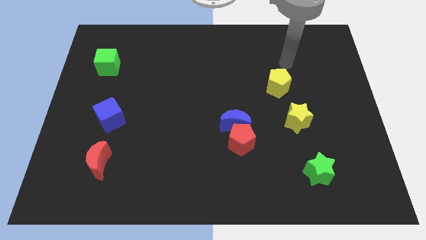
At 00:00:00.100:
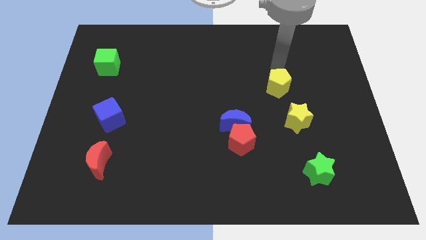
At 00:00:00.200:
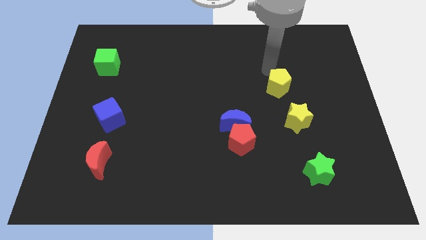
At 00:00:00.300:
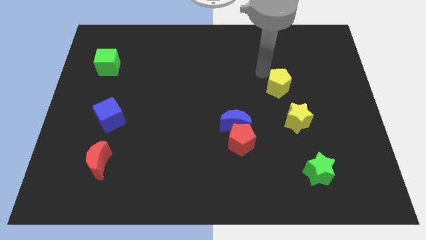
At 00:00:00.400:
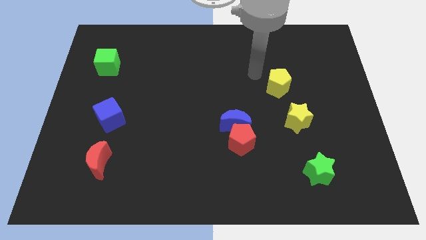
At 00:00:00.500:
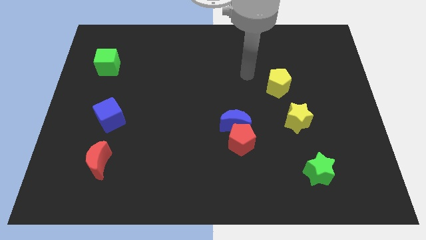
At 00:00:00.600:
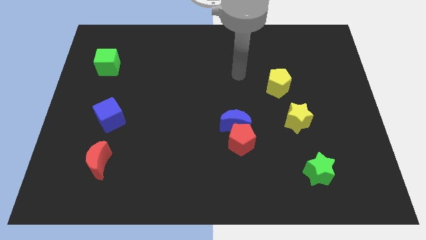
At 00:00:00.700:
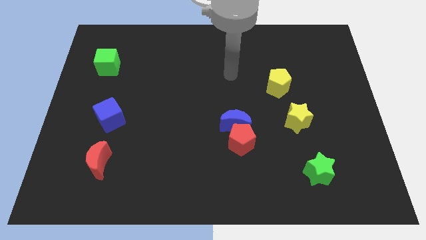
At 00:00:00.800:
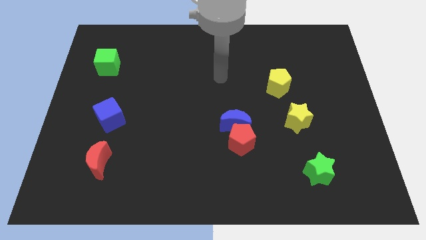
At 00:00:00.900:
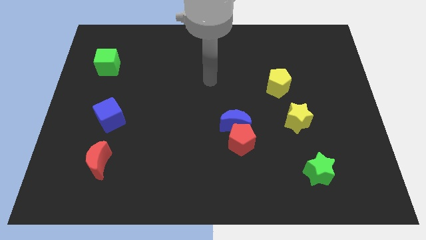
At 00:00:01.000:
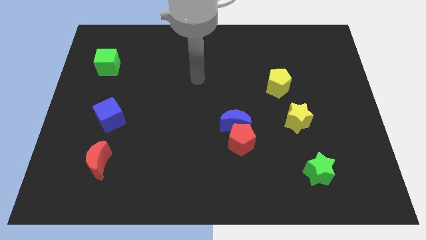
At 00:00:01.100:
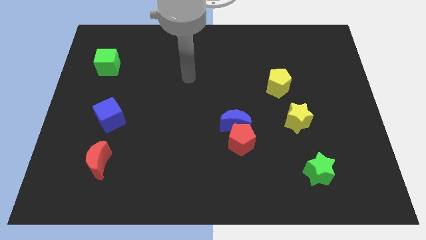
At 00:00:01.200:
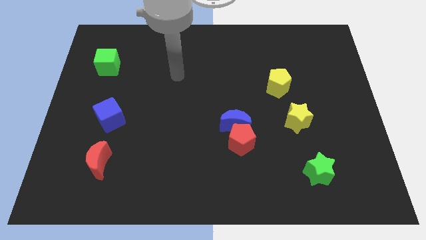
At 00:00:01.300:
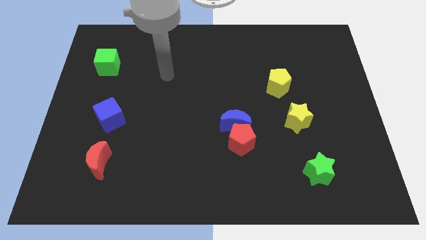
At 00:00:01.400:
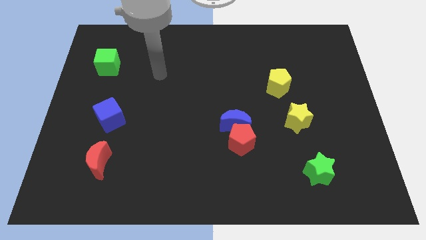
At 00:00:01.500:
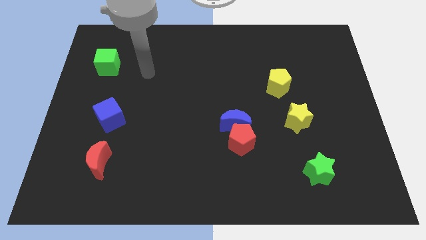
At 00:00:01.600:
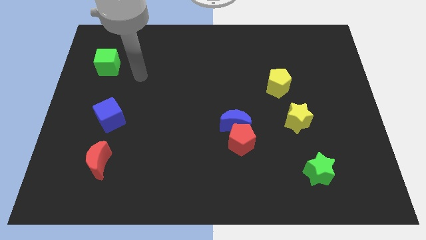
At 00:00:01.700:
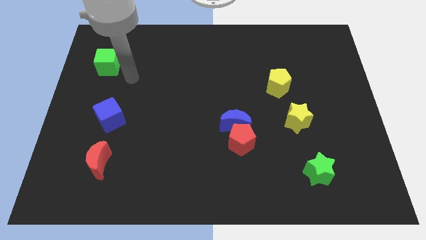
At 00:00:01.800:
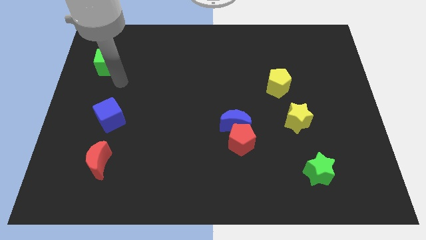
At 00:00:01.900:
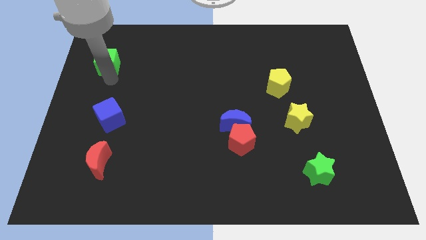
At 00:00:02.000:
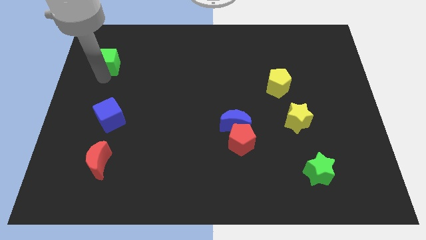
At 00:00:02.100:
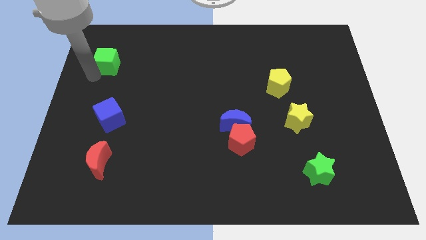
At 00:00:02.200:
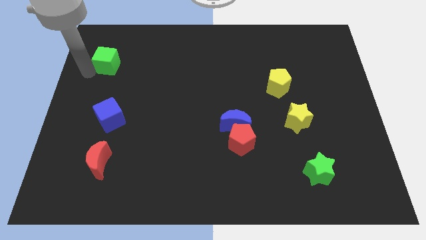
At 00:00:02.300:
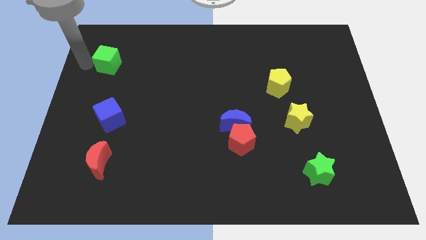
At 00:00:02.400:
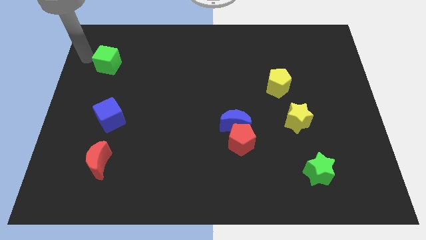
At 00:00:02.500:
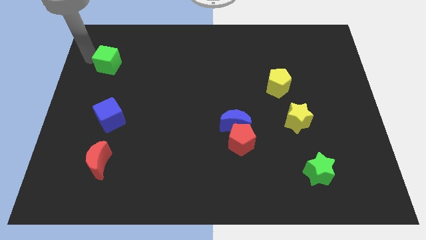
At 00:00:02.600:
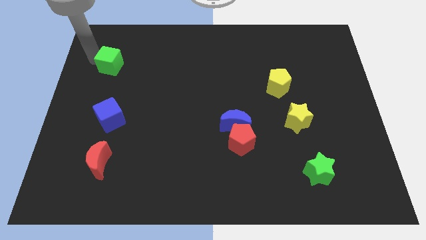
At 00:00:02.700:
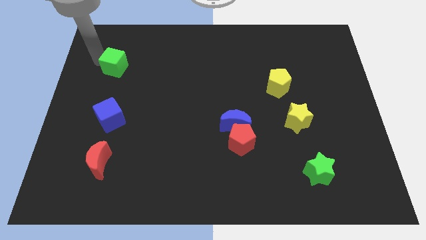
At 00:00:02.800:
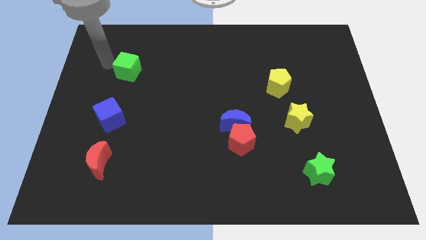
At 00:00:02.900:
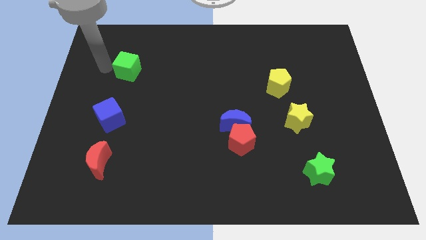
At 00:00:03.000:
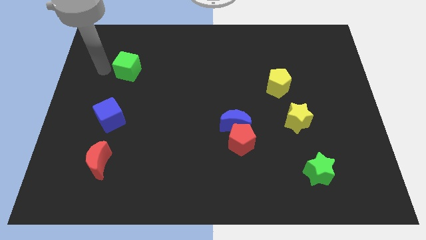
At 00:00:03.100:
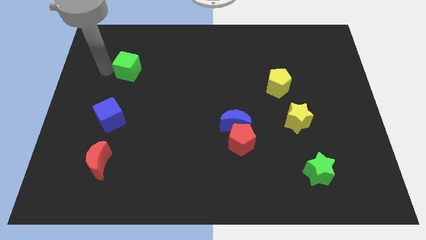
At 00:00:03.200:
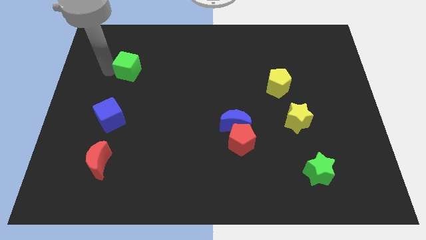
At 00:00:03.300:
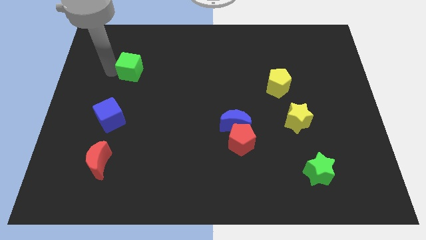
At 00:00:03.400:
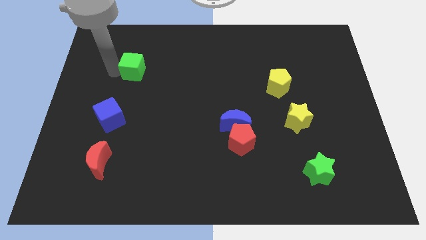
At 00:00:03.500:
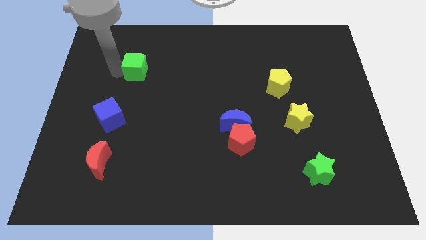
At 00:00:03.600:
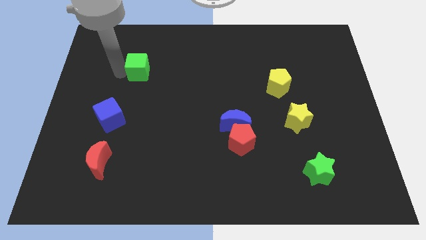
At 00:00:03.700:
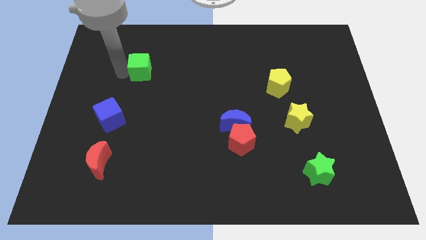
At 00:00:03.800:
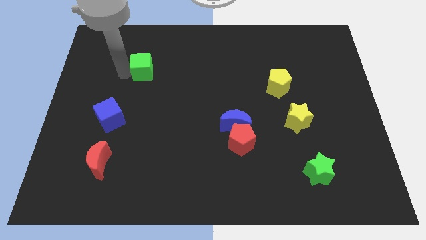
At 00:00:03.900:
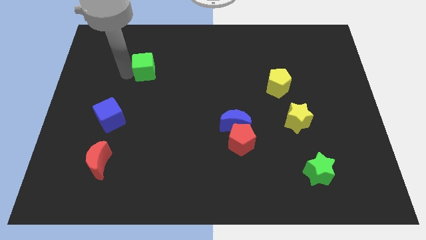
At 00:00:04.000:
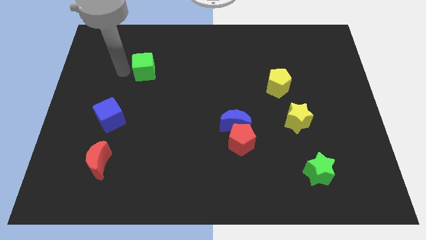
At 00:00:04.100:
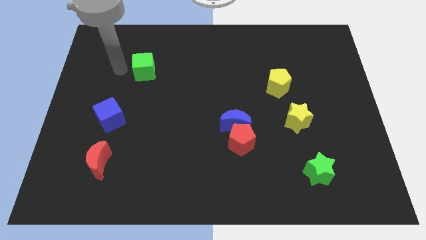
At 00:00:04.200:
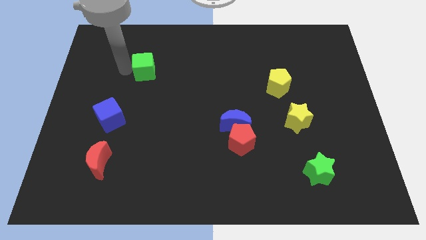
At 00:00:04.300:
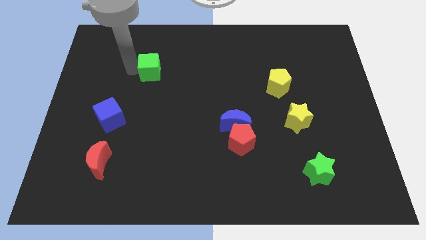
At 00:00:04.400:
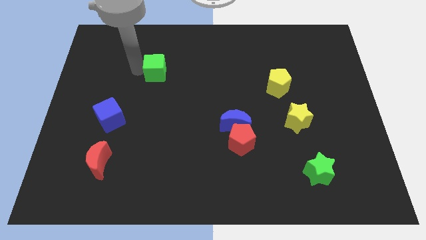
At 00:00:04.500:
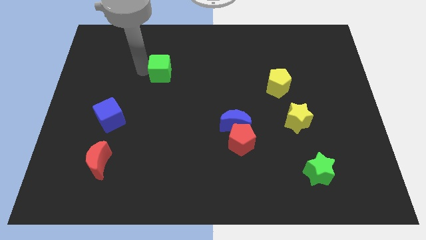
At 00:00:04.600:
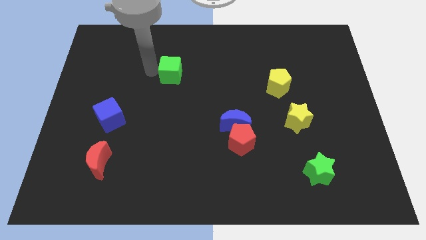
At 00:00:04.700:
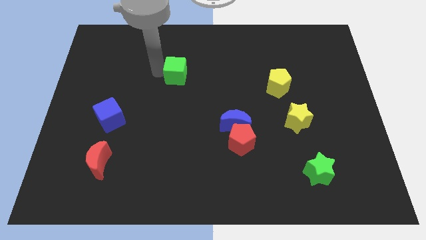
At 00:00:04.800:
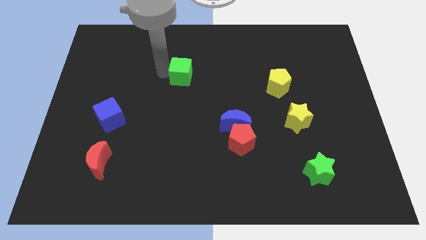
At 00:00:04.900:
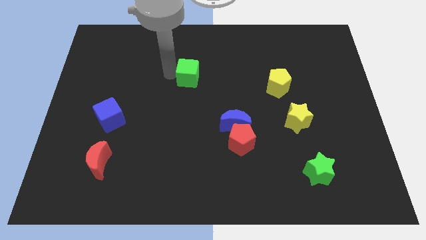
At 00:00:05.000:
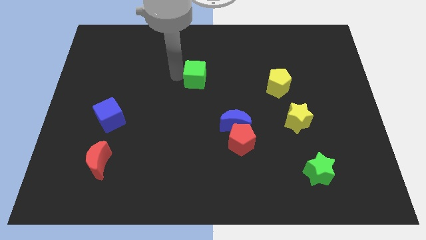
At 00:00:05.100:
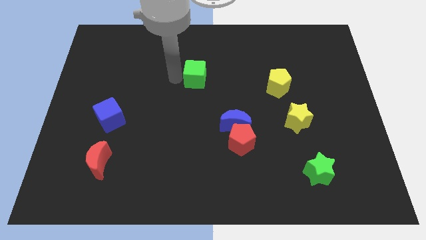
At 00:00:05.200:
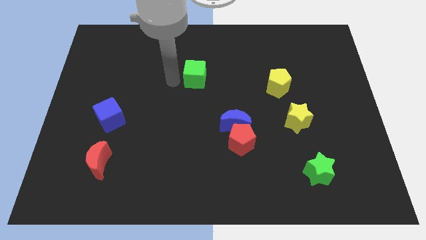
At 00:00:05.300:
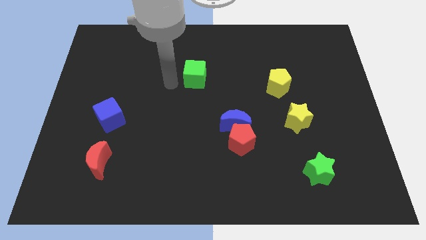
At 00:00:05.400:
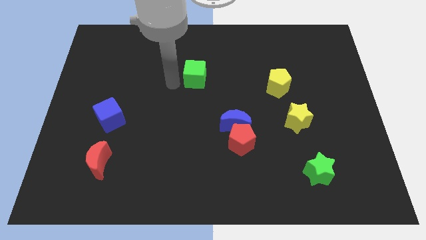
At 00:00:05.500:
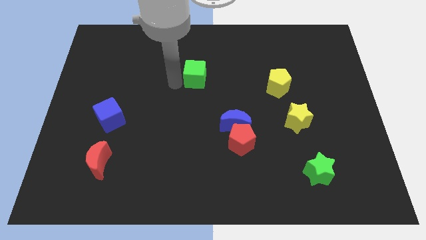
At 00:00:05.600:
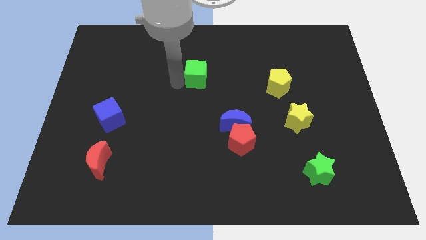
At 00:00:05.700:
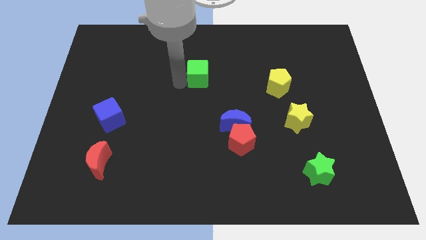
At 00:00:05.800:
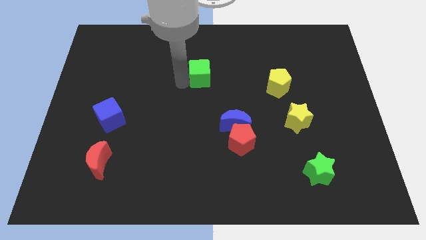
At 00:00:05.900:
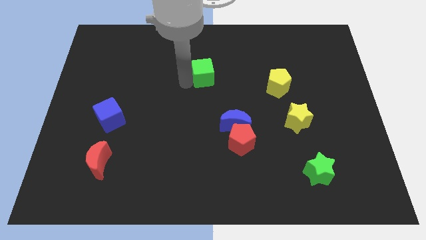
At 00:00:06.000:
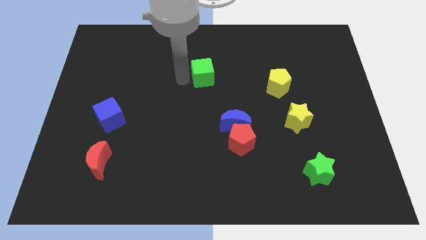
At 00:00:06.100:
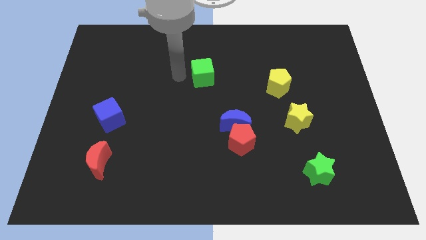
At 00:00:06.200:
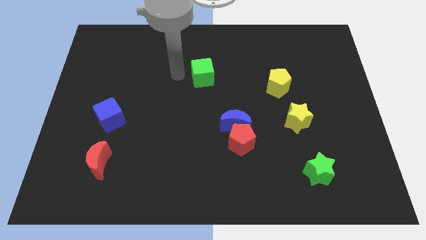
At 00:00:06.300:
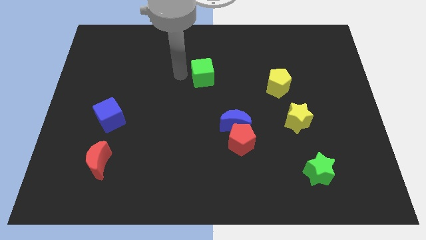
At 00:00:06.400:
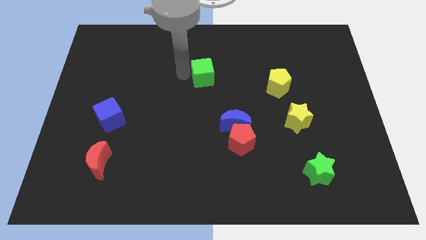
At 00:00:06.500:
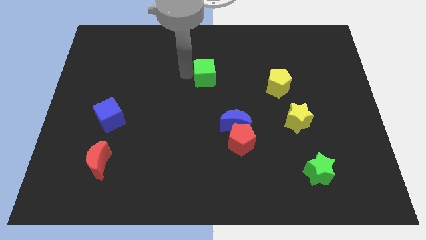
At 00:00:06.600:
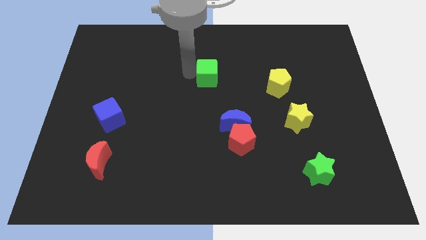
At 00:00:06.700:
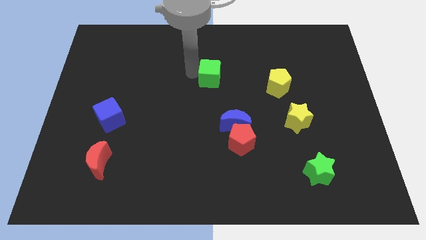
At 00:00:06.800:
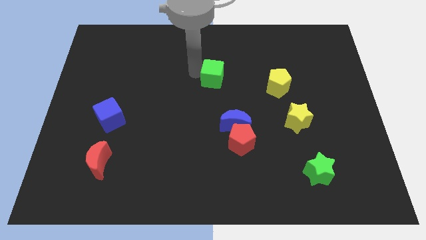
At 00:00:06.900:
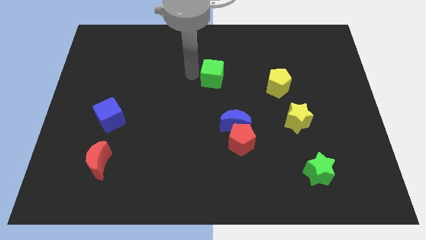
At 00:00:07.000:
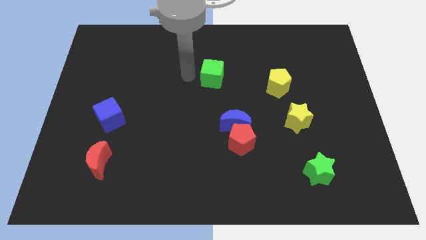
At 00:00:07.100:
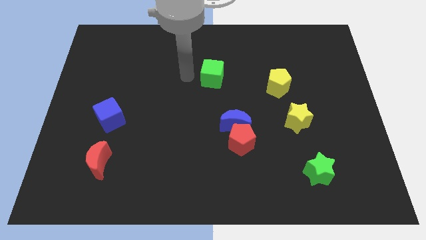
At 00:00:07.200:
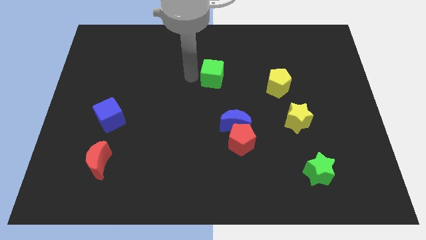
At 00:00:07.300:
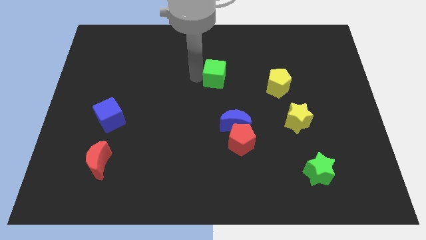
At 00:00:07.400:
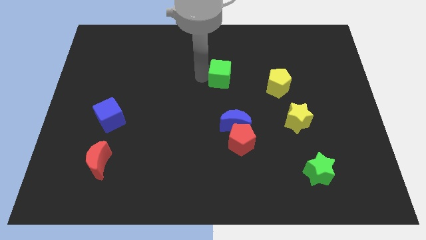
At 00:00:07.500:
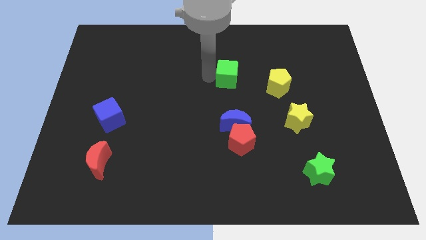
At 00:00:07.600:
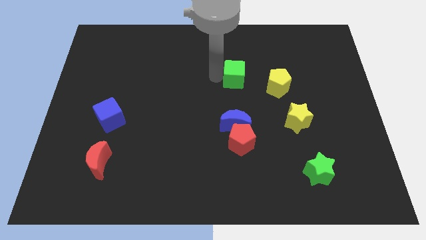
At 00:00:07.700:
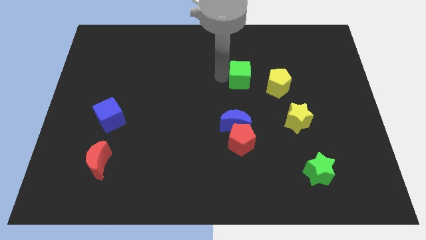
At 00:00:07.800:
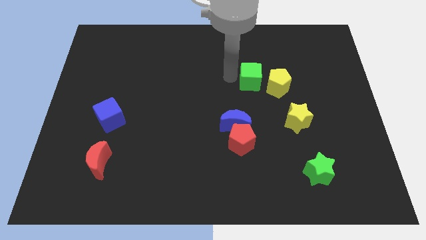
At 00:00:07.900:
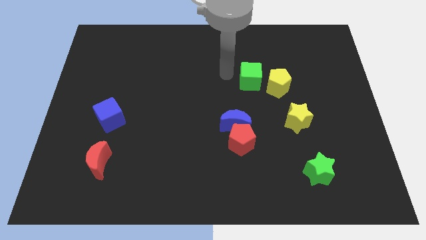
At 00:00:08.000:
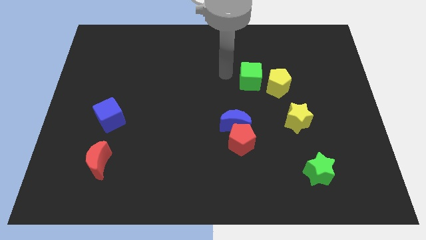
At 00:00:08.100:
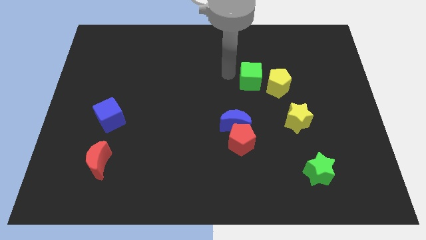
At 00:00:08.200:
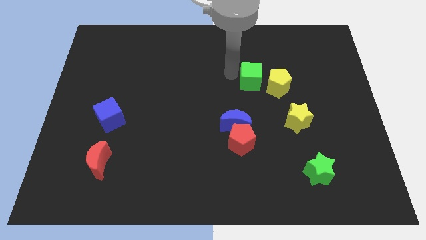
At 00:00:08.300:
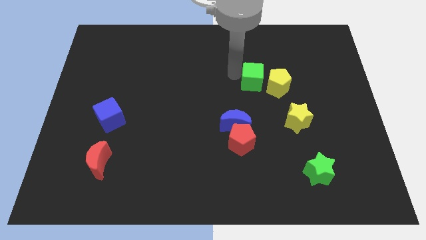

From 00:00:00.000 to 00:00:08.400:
put the green cube next to the yellow pentagon
